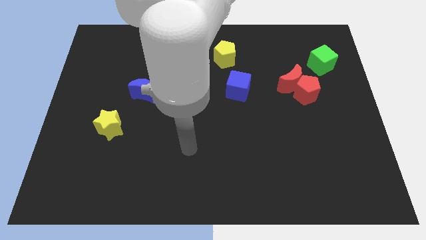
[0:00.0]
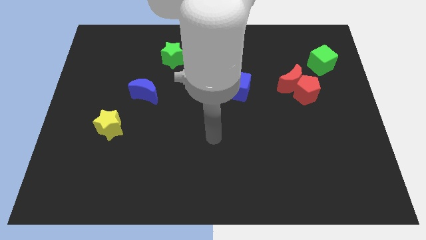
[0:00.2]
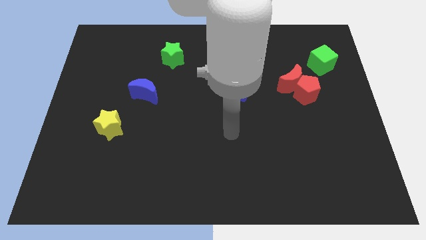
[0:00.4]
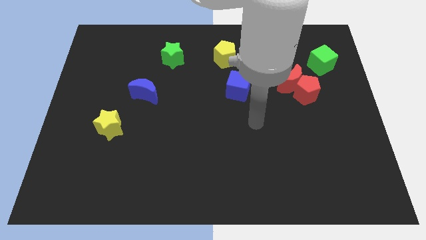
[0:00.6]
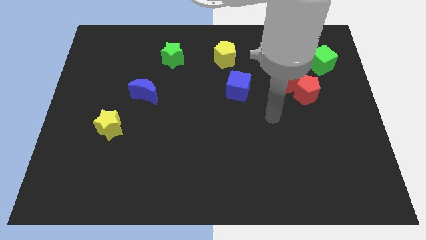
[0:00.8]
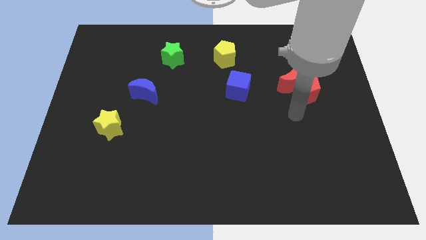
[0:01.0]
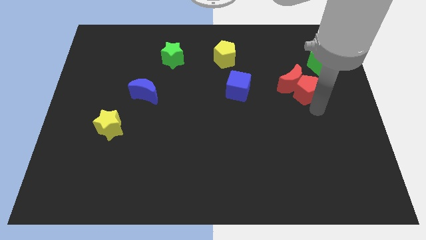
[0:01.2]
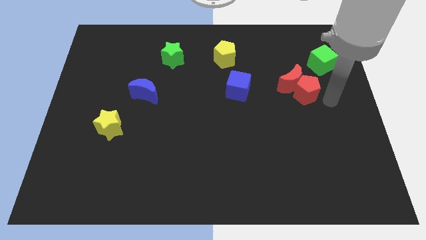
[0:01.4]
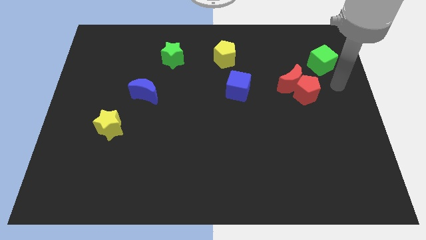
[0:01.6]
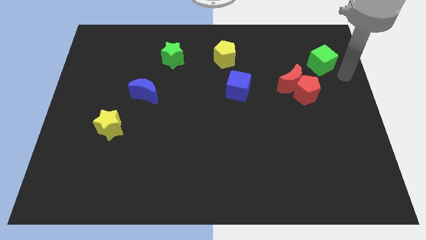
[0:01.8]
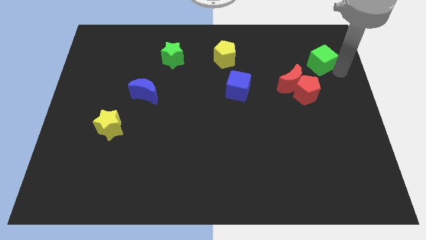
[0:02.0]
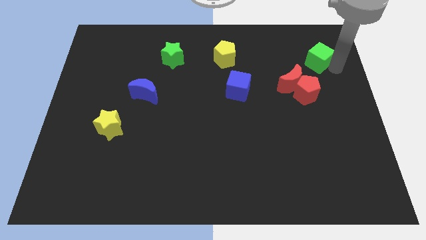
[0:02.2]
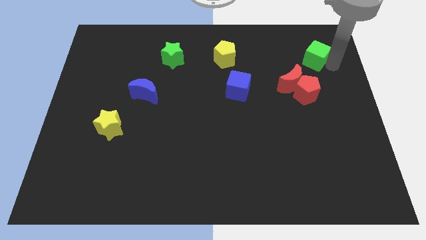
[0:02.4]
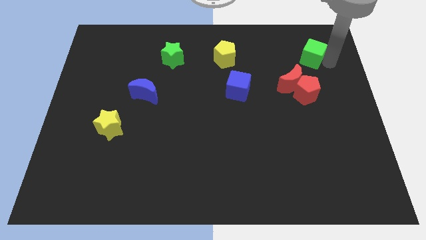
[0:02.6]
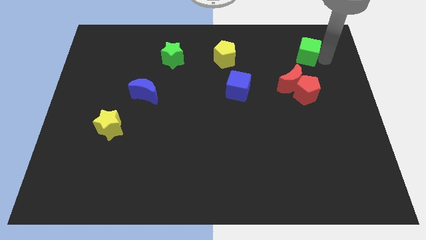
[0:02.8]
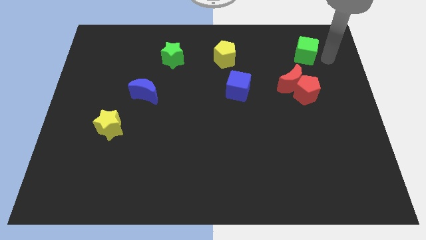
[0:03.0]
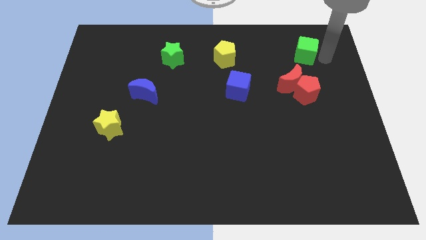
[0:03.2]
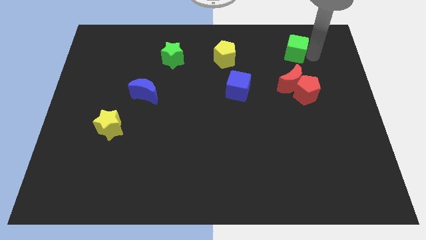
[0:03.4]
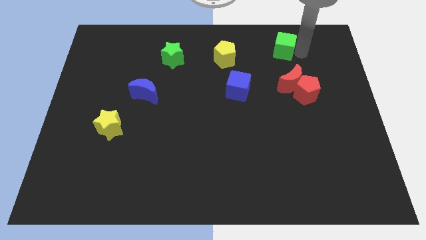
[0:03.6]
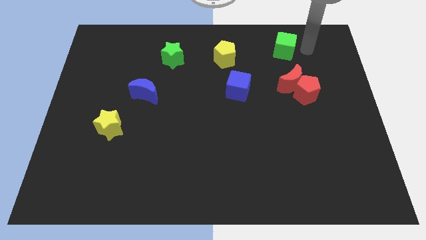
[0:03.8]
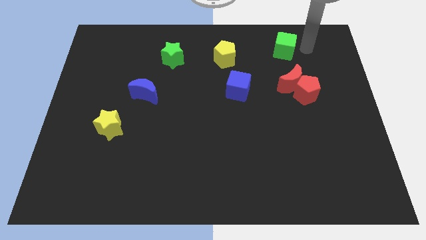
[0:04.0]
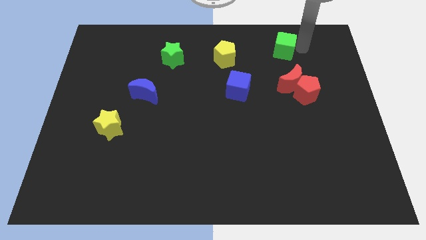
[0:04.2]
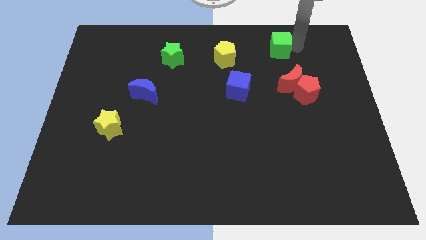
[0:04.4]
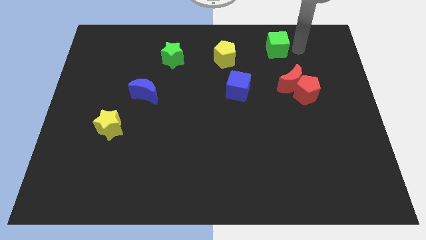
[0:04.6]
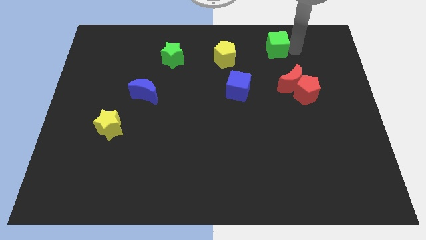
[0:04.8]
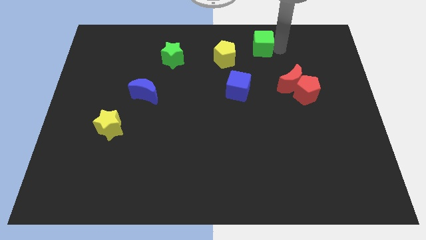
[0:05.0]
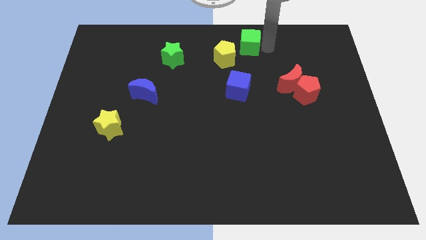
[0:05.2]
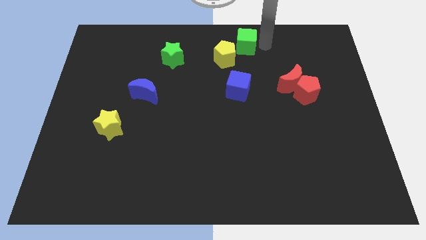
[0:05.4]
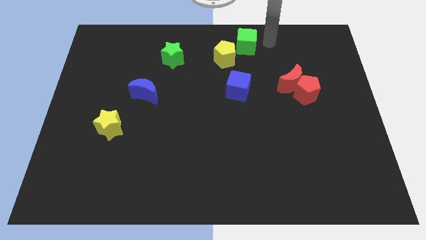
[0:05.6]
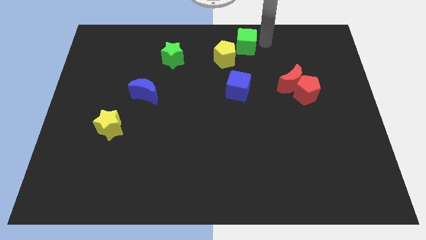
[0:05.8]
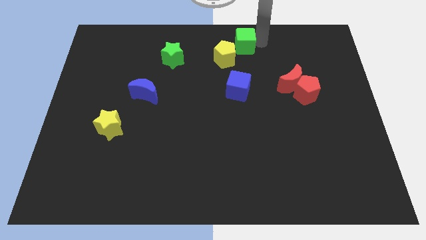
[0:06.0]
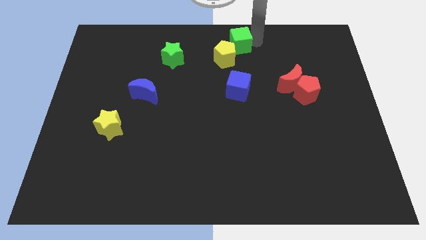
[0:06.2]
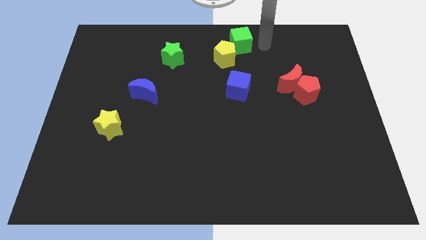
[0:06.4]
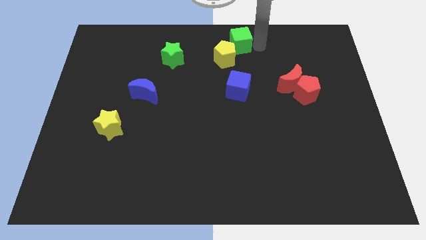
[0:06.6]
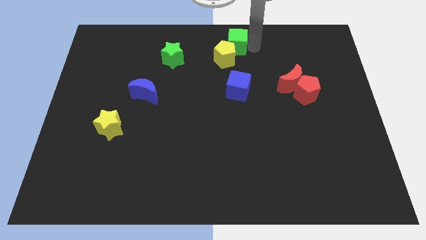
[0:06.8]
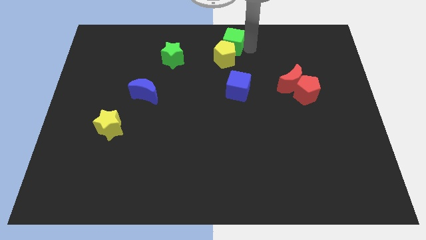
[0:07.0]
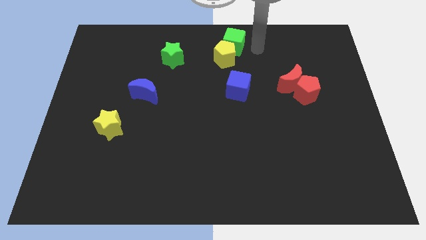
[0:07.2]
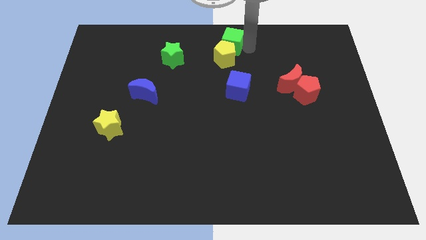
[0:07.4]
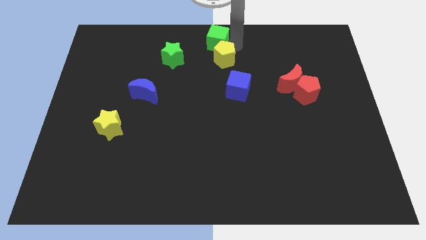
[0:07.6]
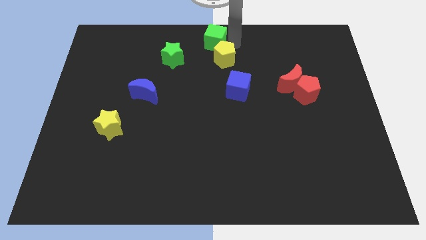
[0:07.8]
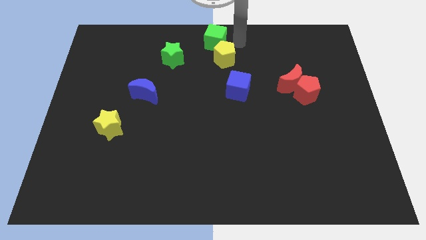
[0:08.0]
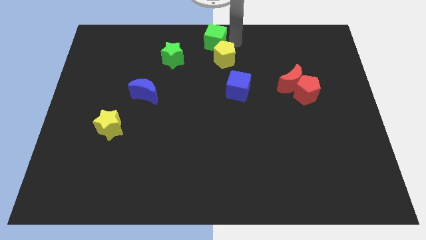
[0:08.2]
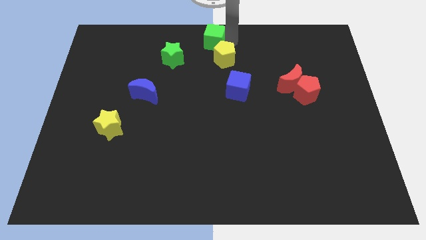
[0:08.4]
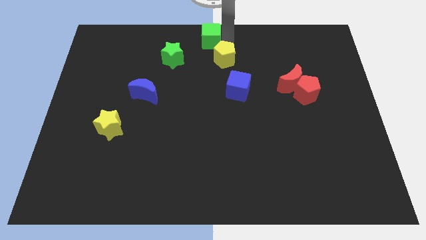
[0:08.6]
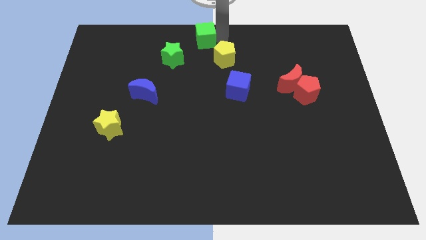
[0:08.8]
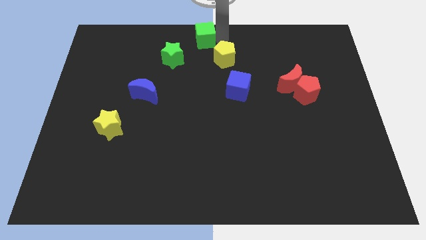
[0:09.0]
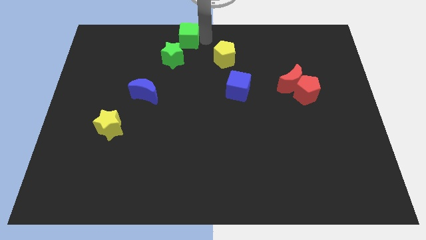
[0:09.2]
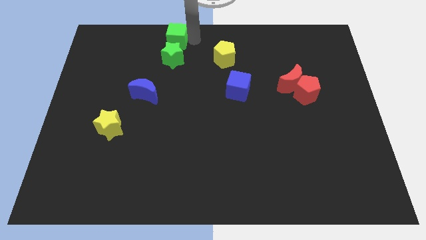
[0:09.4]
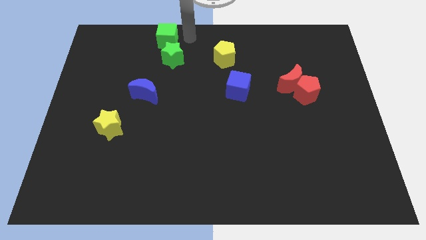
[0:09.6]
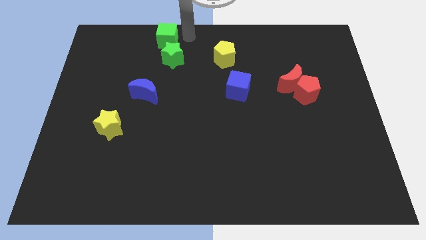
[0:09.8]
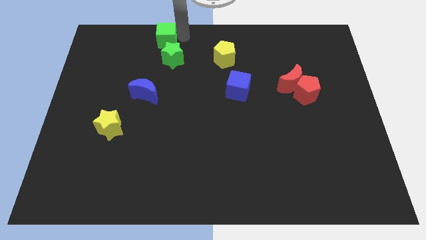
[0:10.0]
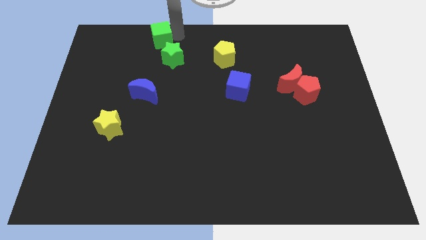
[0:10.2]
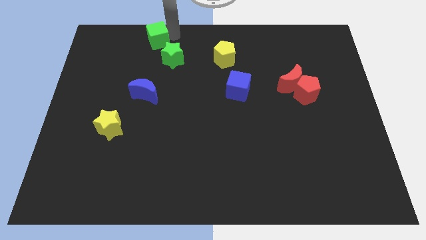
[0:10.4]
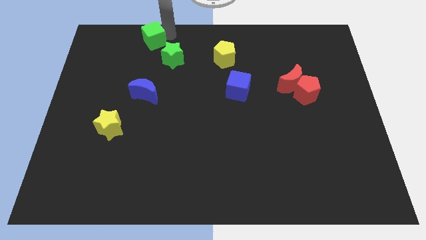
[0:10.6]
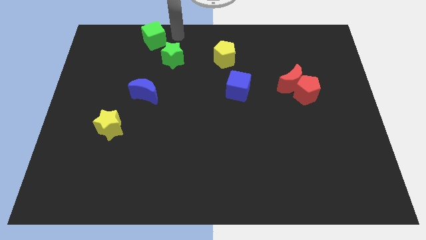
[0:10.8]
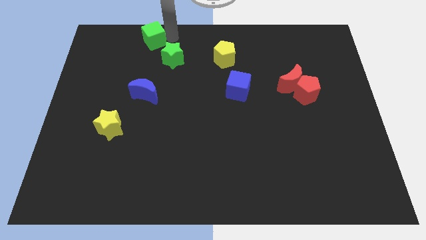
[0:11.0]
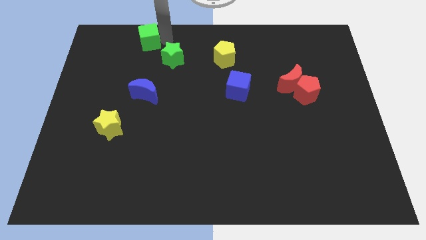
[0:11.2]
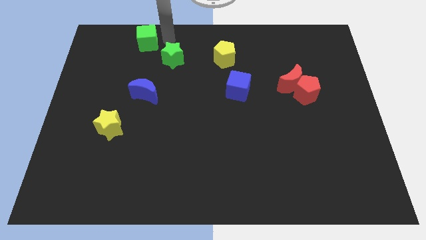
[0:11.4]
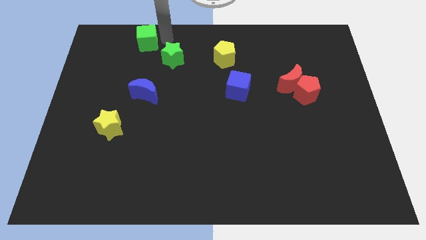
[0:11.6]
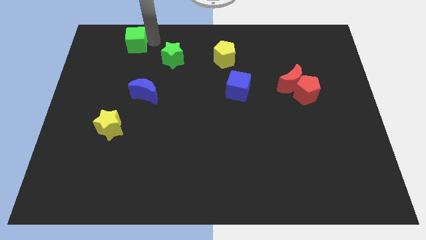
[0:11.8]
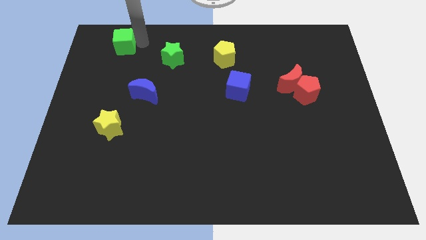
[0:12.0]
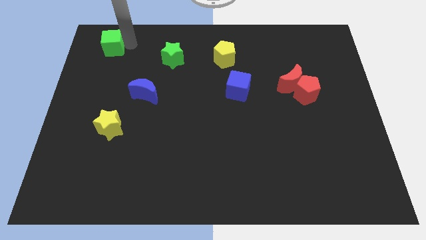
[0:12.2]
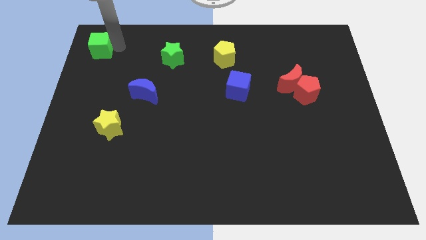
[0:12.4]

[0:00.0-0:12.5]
slide the green cube to the top left corner

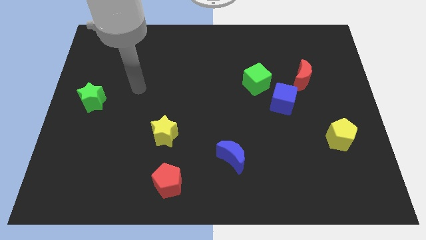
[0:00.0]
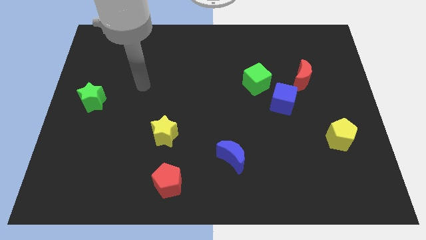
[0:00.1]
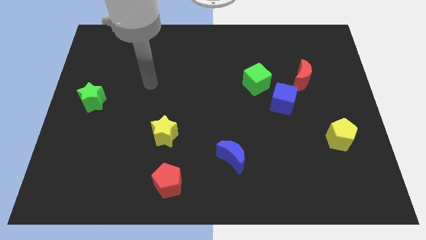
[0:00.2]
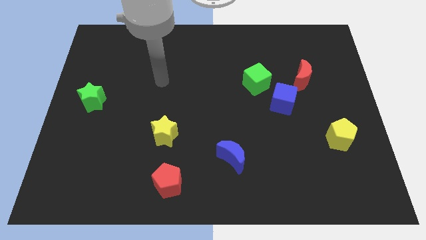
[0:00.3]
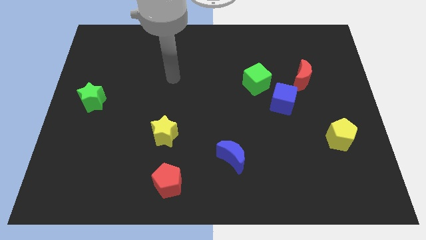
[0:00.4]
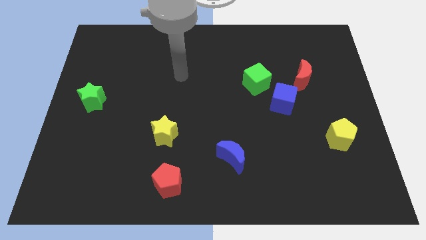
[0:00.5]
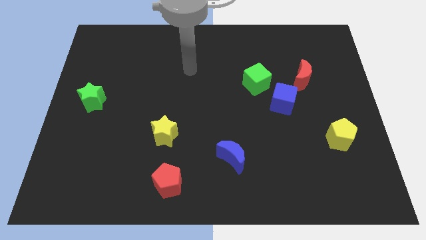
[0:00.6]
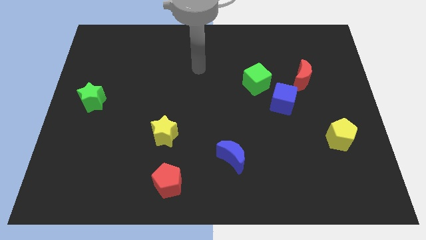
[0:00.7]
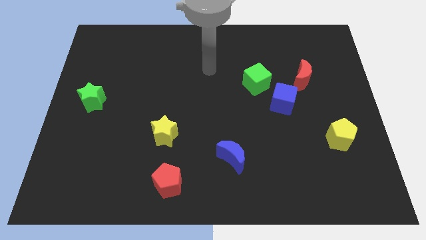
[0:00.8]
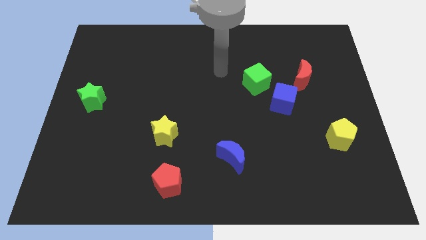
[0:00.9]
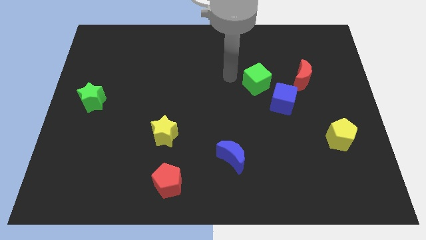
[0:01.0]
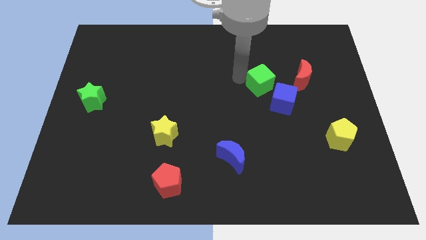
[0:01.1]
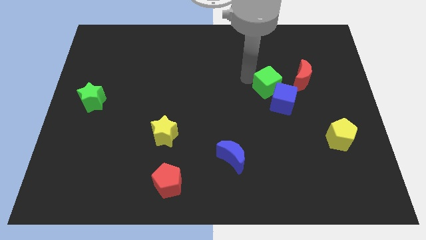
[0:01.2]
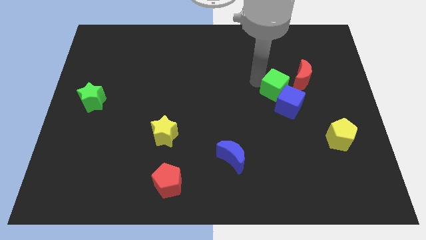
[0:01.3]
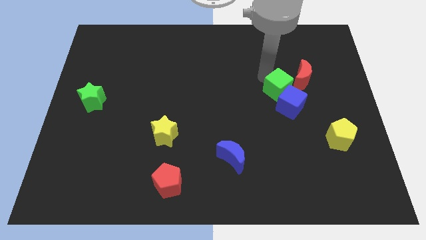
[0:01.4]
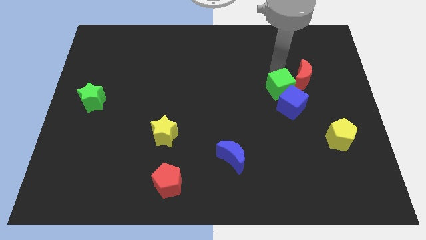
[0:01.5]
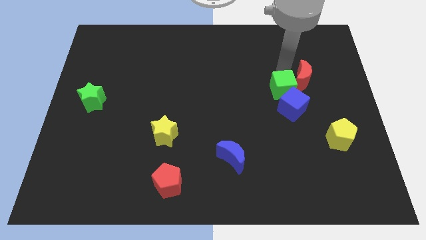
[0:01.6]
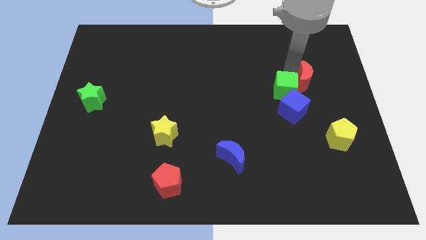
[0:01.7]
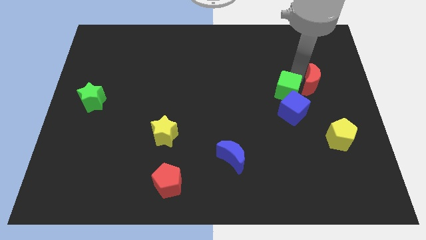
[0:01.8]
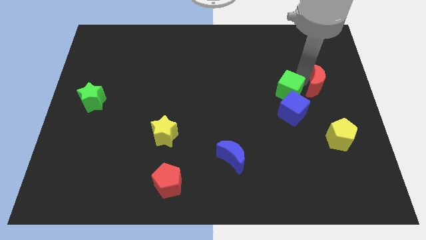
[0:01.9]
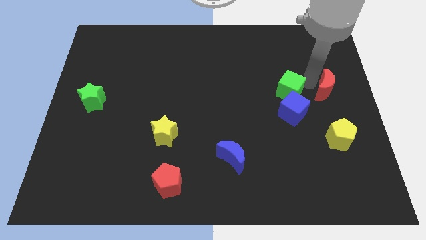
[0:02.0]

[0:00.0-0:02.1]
put the red moon to the right side
